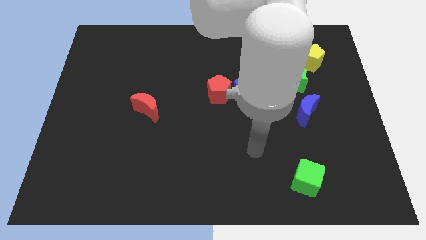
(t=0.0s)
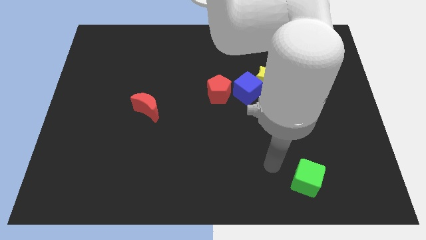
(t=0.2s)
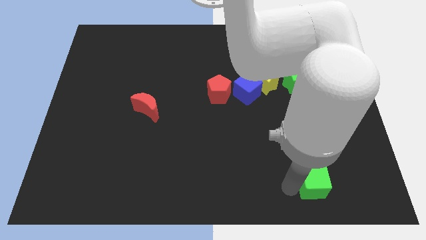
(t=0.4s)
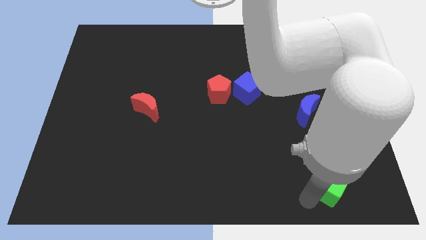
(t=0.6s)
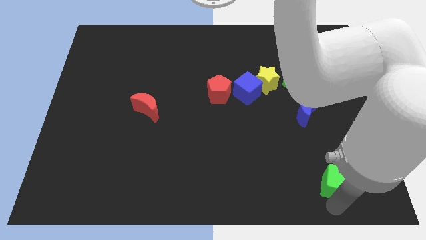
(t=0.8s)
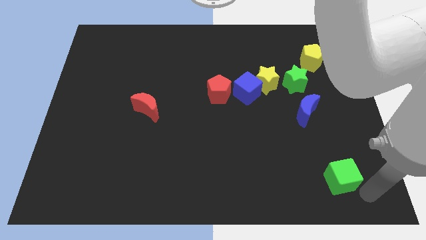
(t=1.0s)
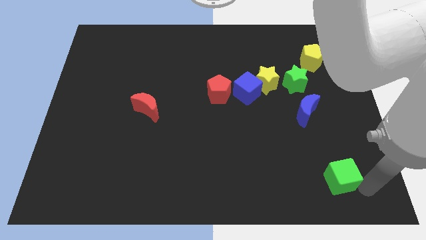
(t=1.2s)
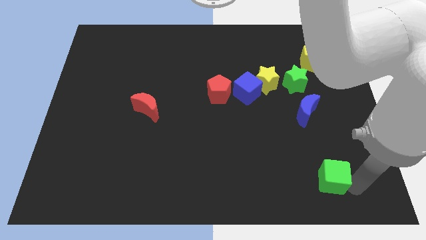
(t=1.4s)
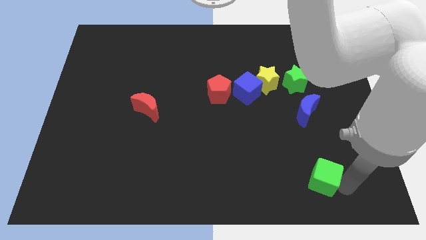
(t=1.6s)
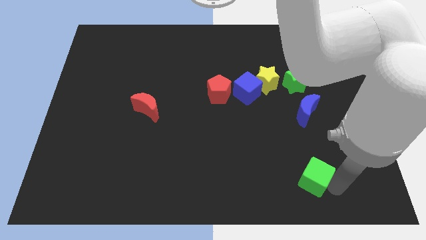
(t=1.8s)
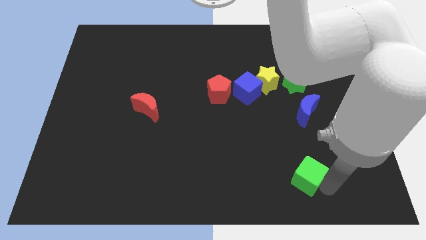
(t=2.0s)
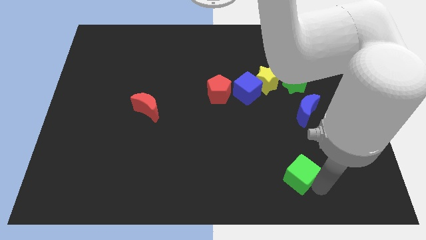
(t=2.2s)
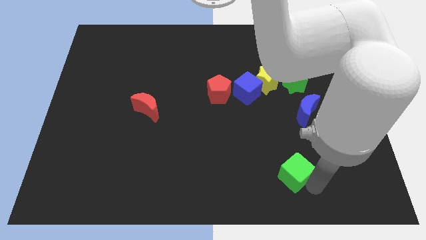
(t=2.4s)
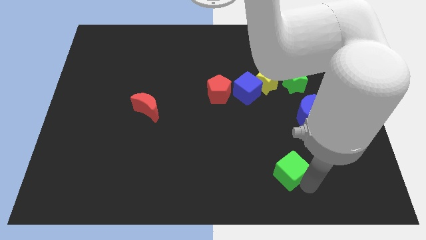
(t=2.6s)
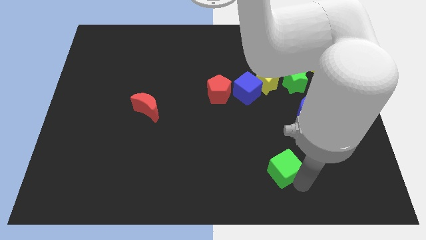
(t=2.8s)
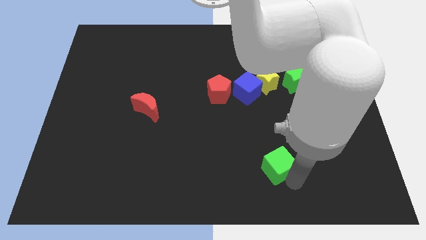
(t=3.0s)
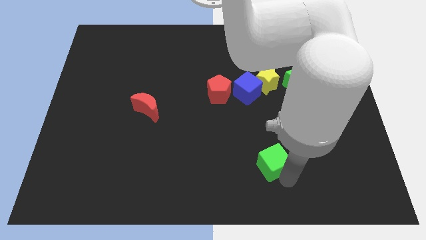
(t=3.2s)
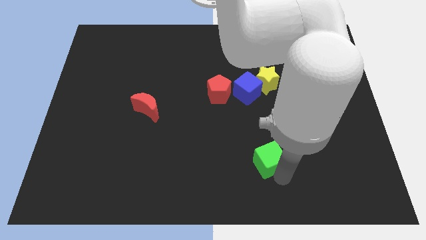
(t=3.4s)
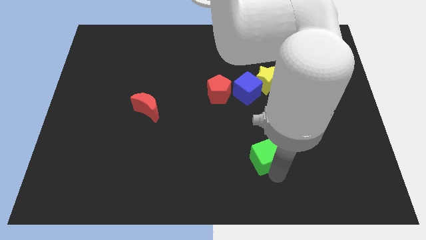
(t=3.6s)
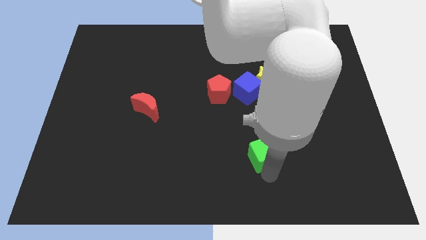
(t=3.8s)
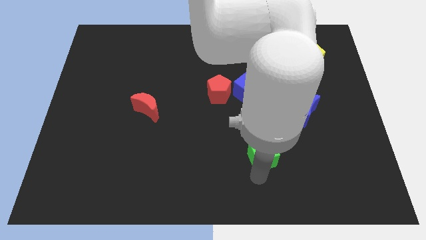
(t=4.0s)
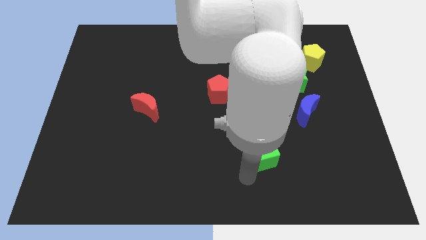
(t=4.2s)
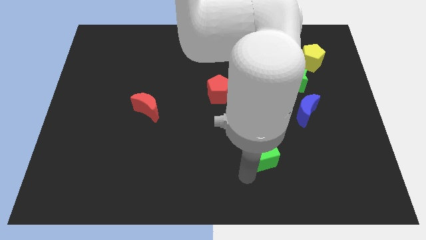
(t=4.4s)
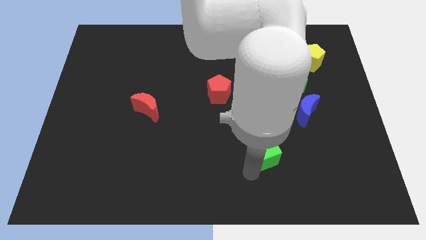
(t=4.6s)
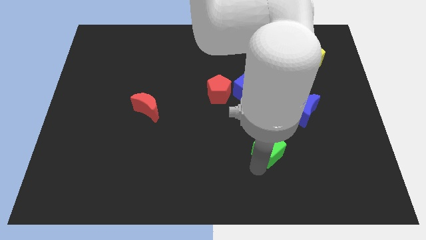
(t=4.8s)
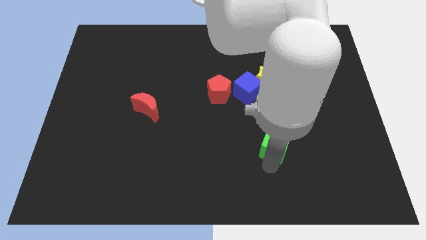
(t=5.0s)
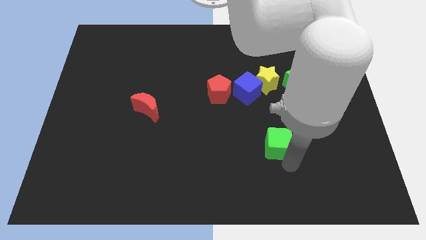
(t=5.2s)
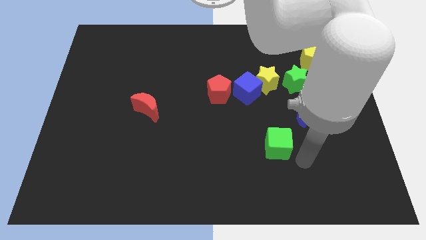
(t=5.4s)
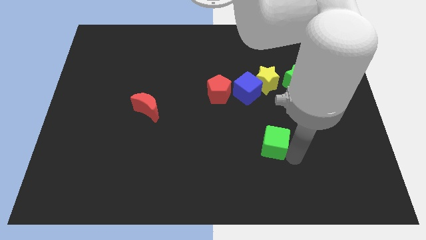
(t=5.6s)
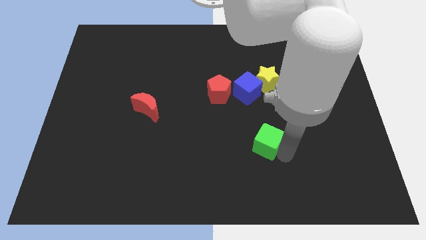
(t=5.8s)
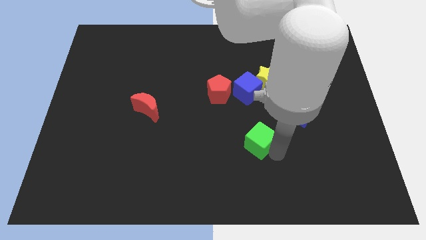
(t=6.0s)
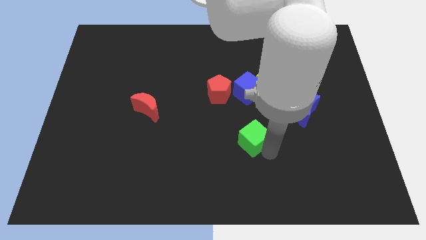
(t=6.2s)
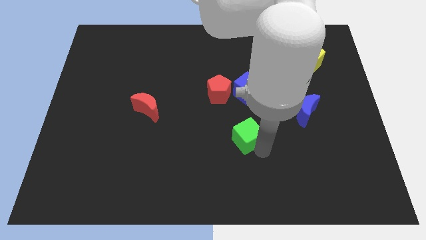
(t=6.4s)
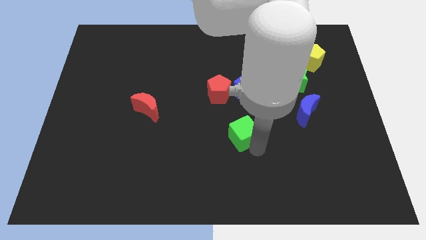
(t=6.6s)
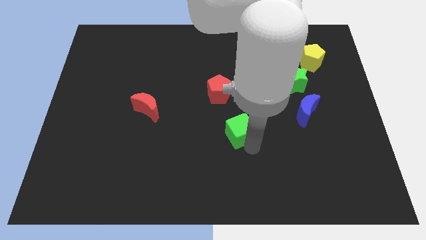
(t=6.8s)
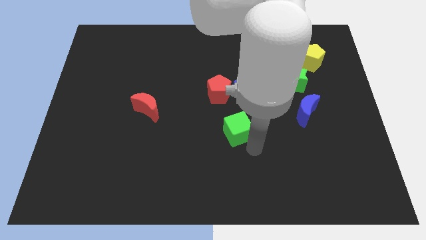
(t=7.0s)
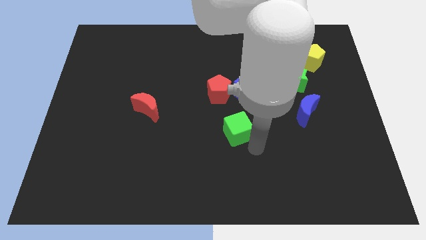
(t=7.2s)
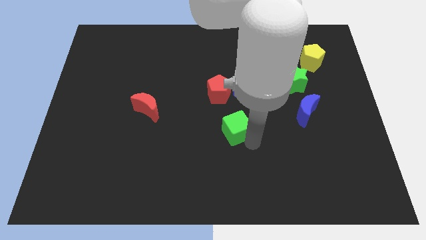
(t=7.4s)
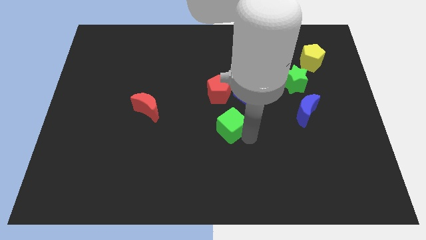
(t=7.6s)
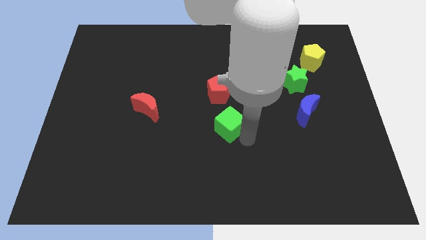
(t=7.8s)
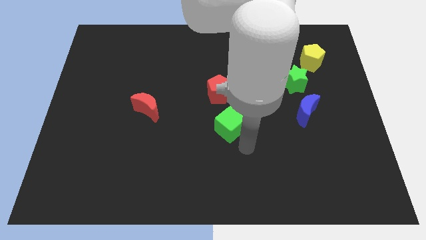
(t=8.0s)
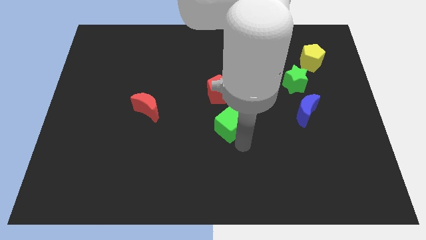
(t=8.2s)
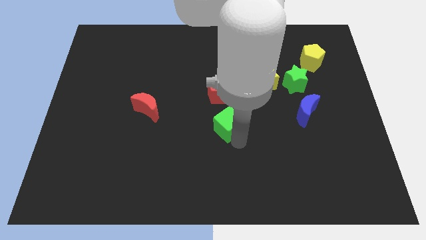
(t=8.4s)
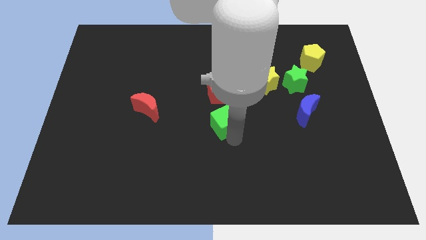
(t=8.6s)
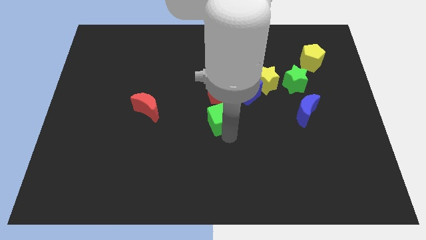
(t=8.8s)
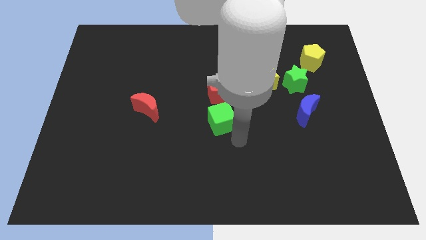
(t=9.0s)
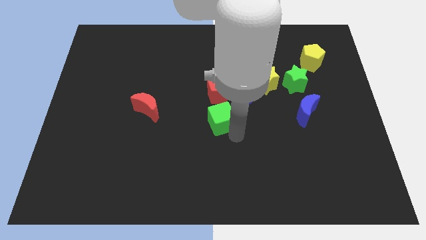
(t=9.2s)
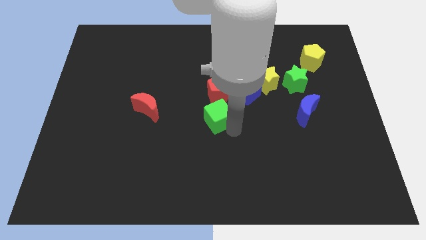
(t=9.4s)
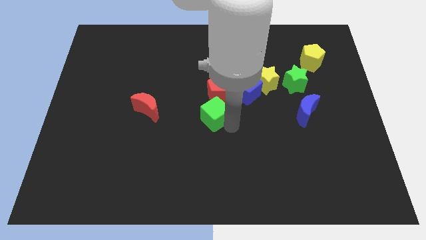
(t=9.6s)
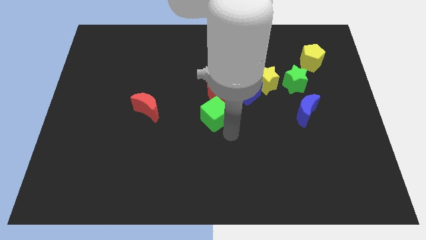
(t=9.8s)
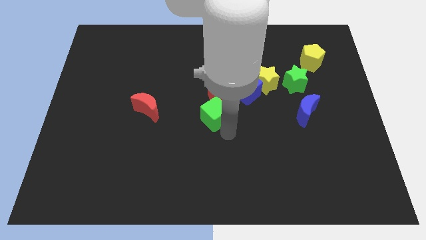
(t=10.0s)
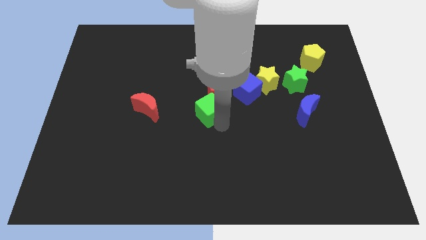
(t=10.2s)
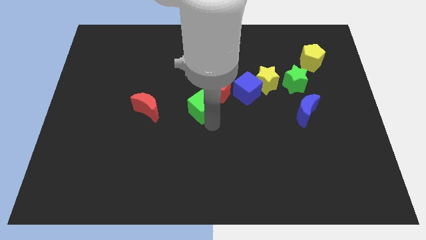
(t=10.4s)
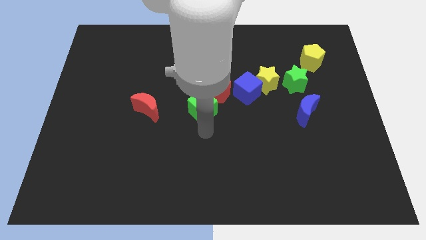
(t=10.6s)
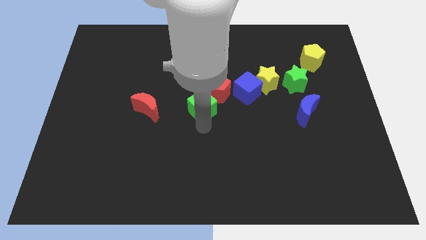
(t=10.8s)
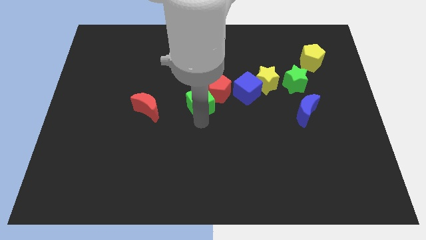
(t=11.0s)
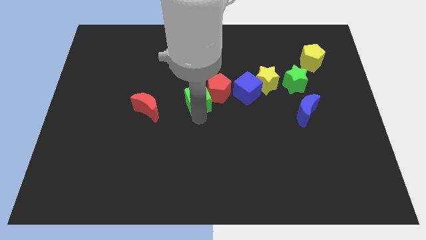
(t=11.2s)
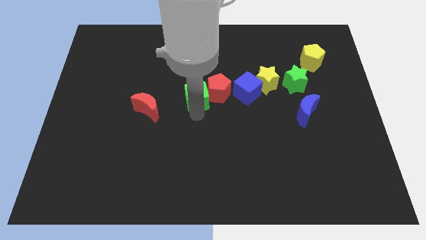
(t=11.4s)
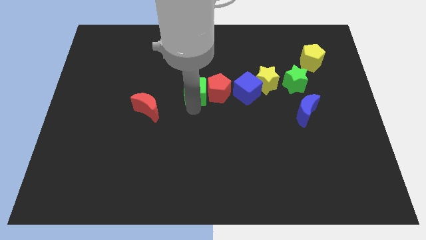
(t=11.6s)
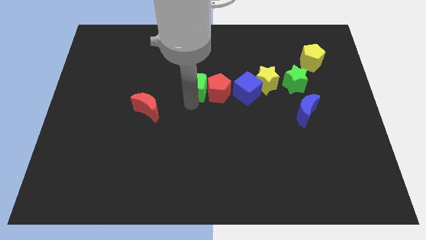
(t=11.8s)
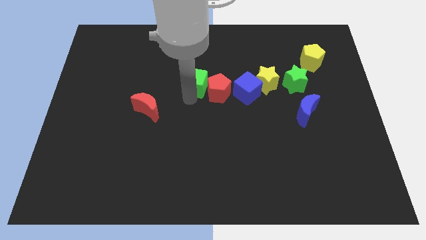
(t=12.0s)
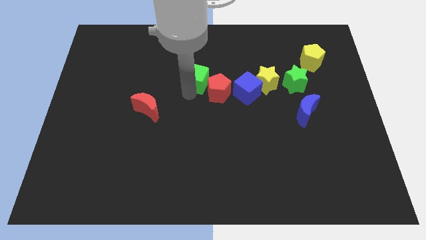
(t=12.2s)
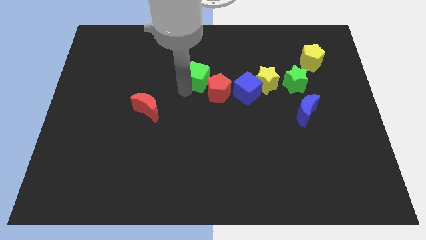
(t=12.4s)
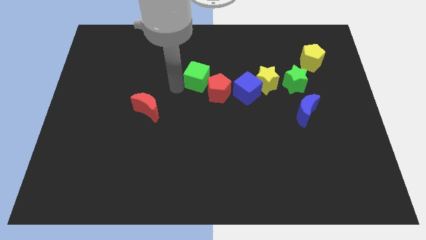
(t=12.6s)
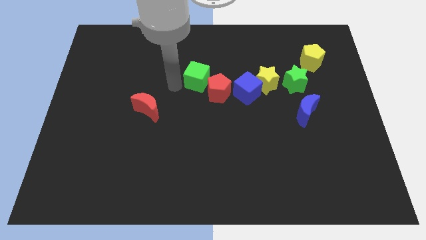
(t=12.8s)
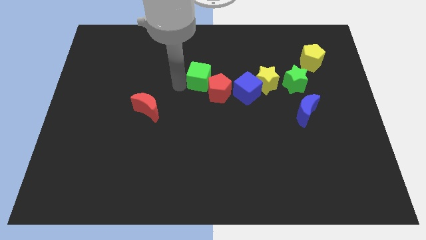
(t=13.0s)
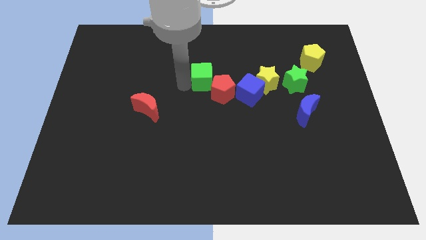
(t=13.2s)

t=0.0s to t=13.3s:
put the green cube to the left side of the yellow star
